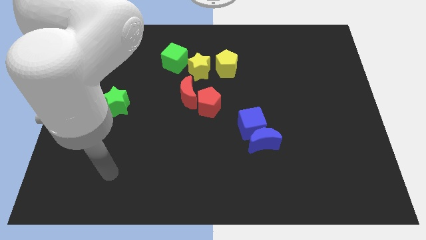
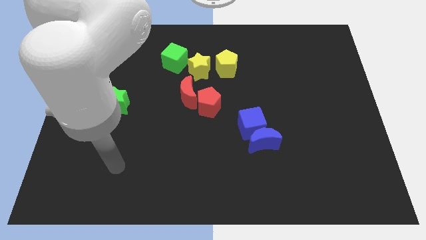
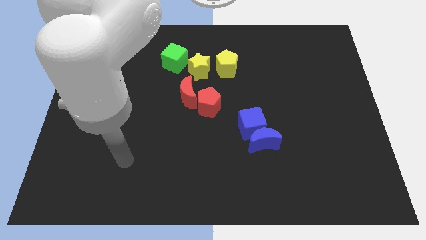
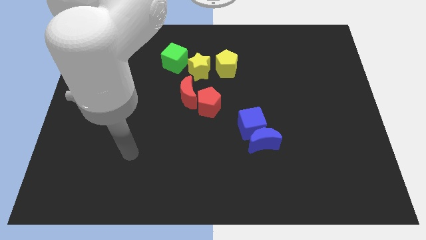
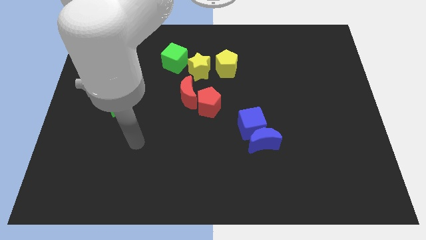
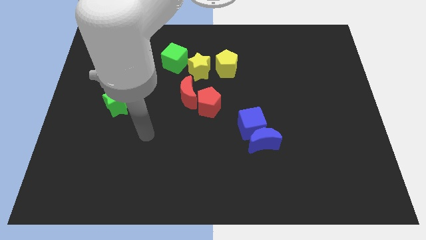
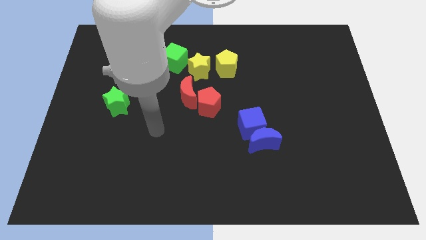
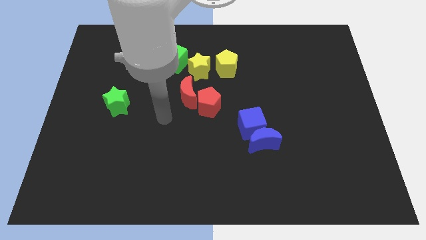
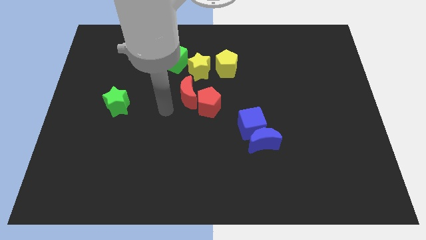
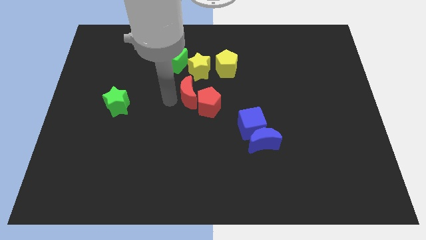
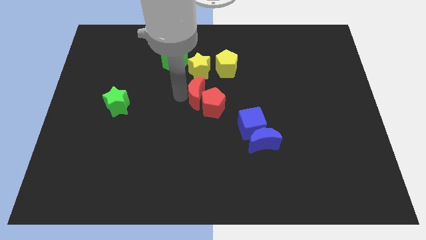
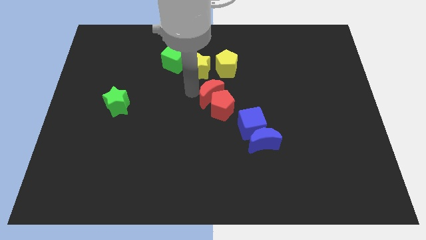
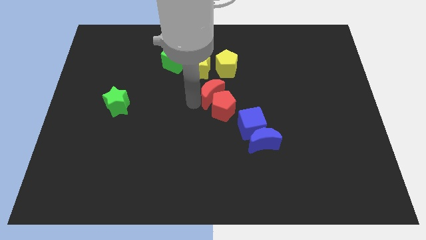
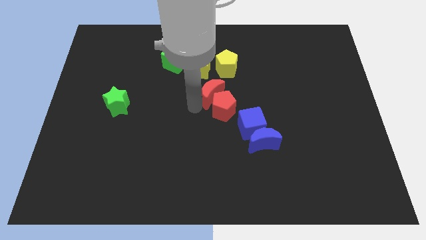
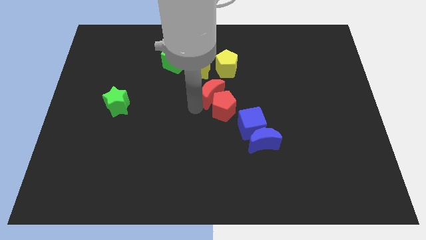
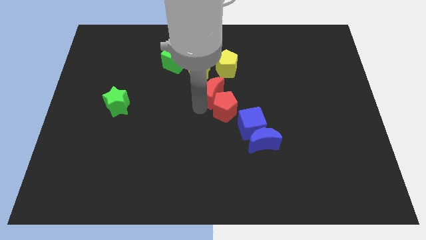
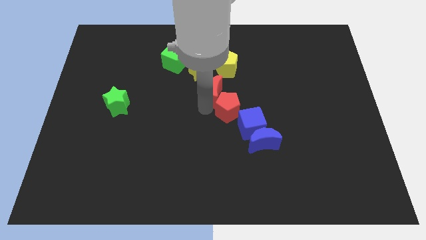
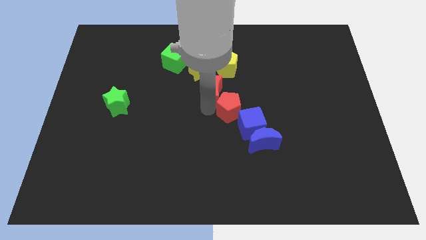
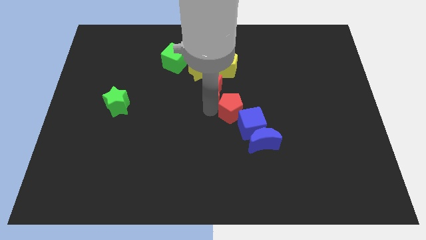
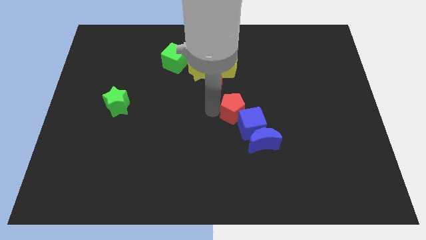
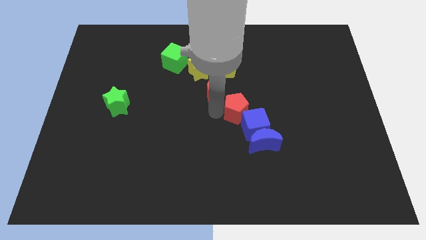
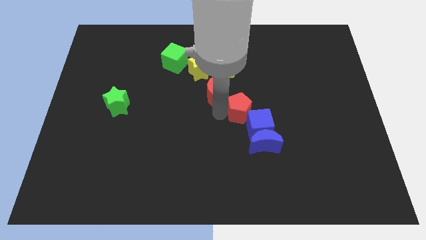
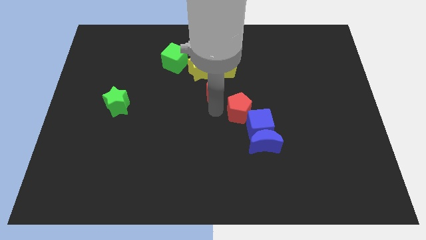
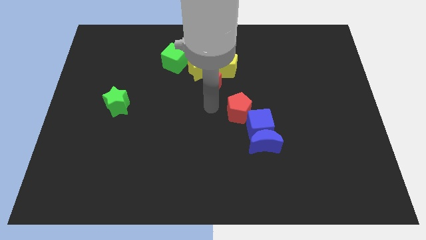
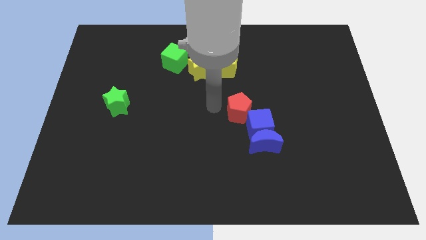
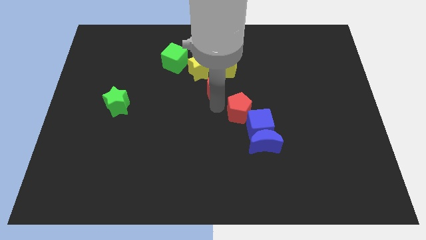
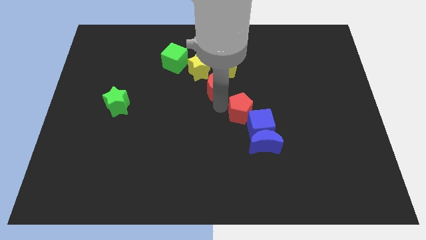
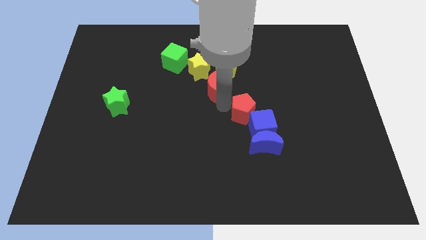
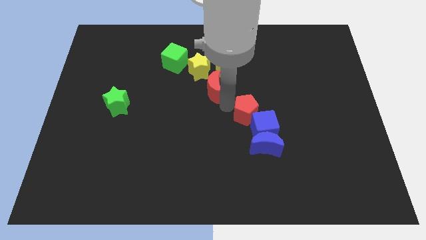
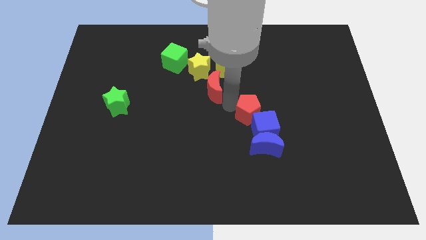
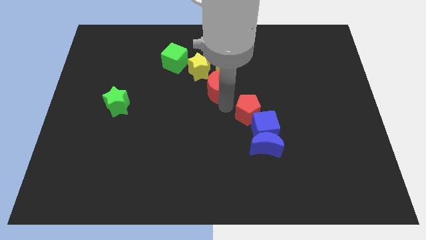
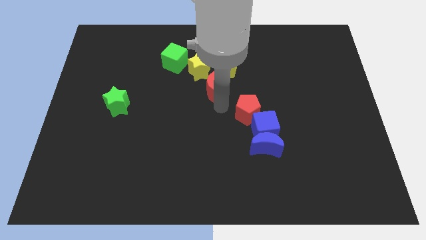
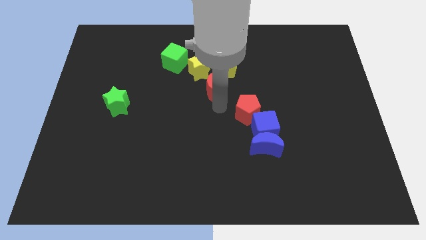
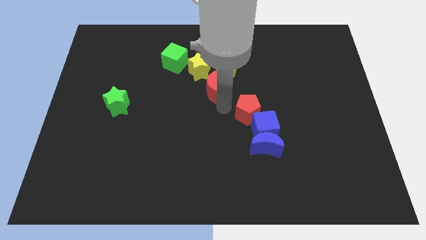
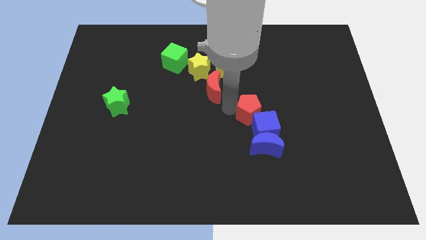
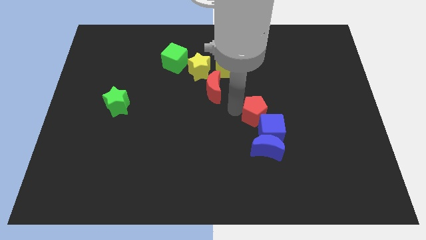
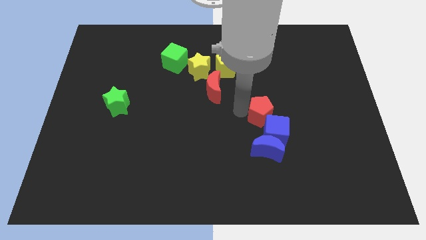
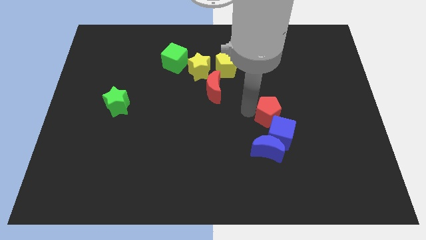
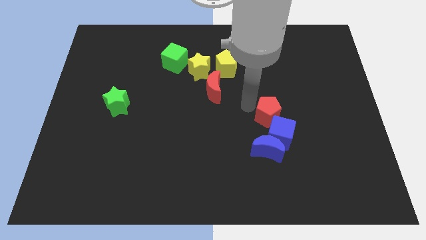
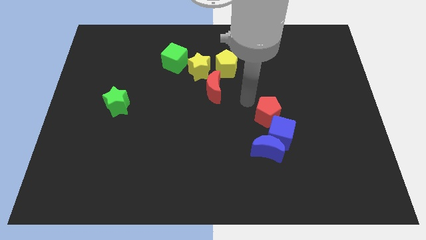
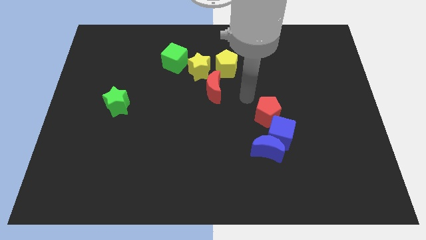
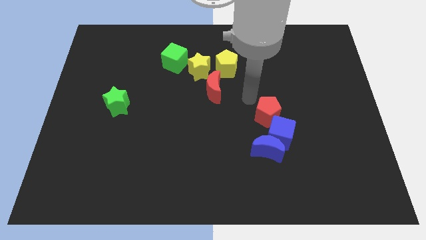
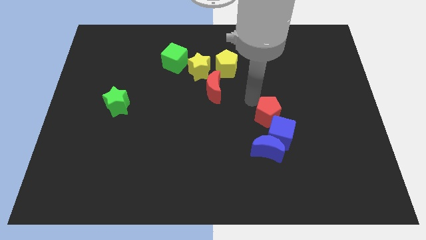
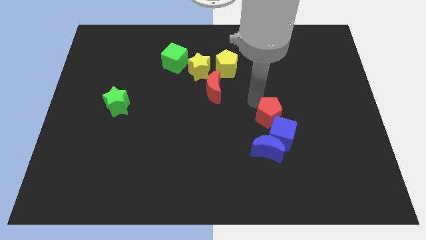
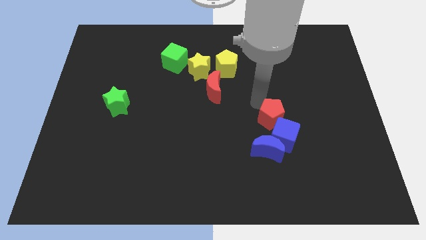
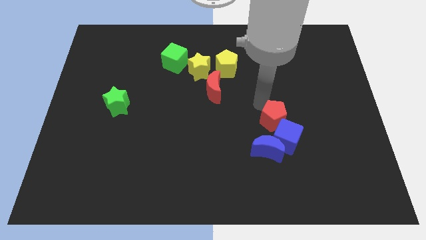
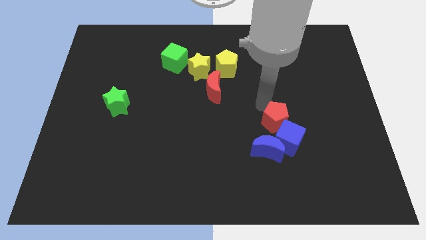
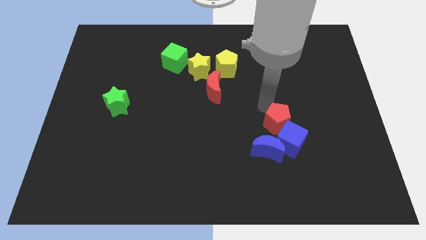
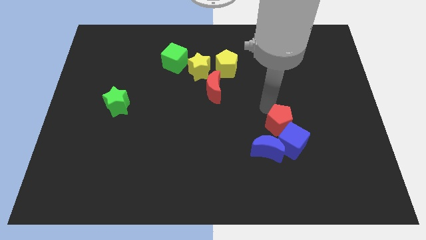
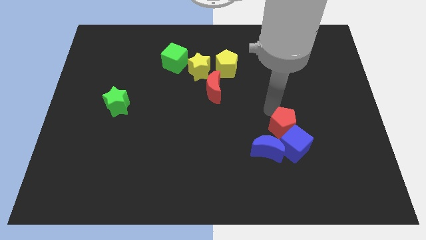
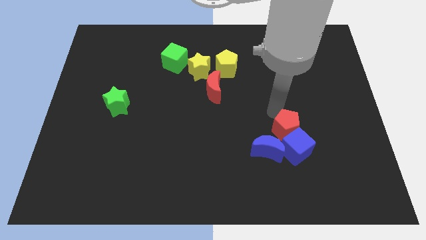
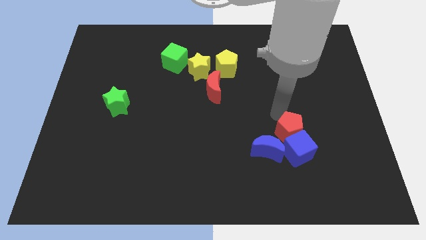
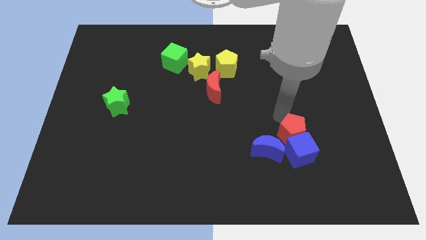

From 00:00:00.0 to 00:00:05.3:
move the red pentagon to the right side of the blue moon

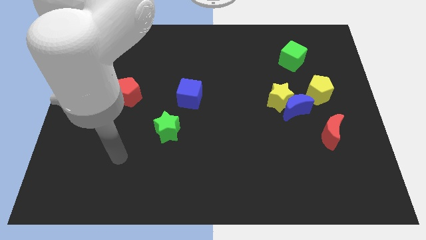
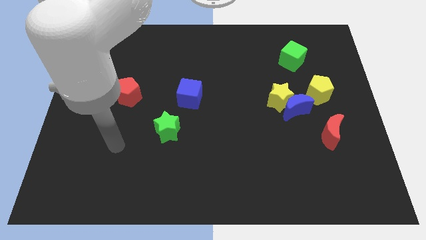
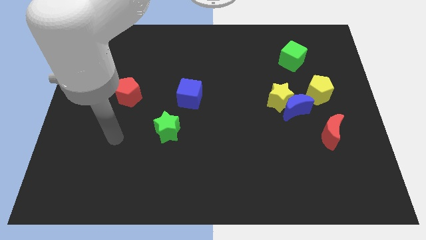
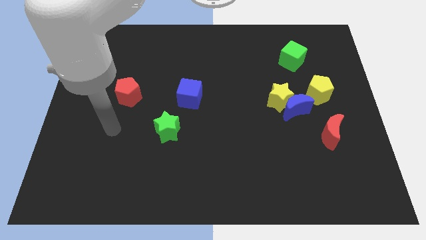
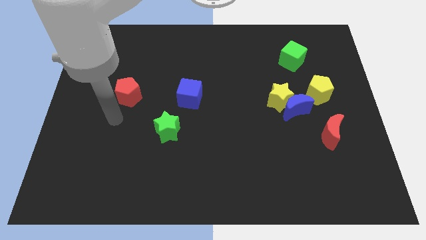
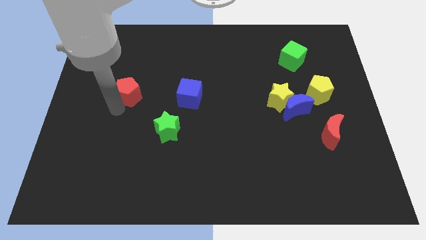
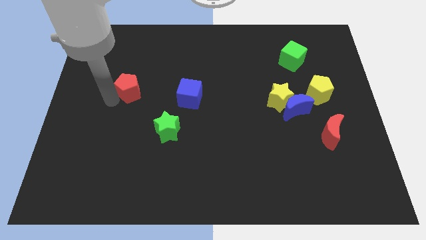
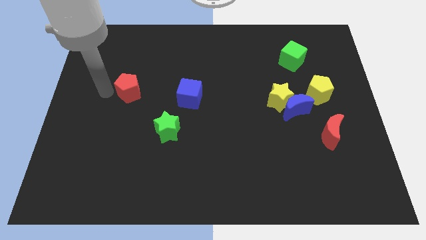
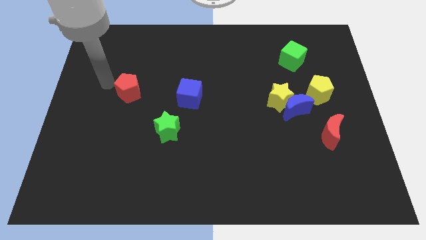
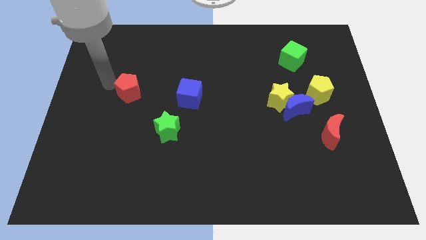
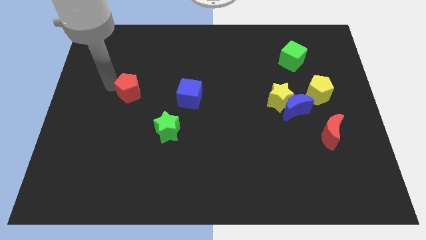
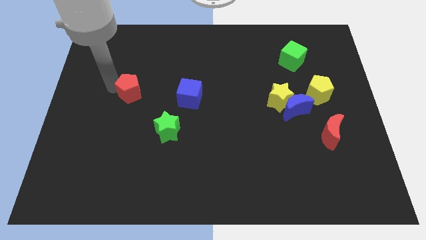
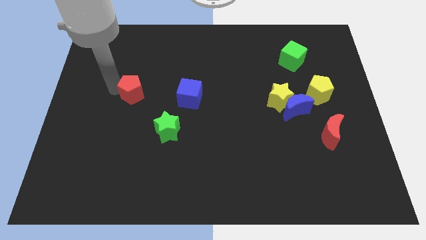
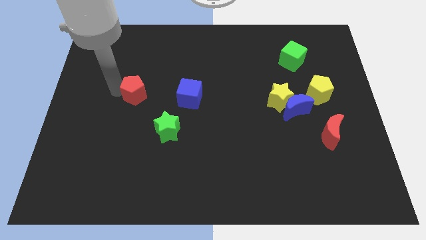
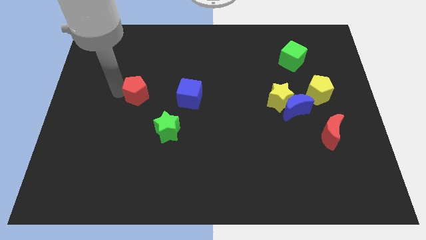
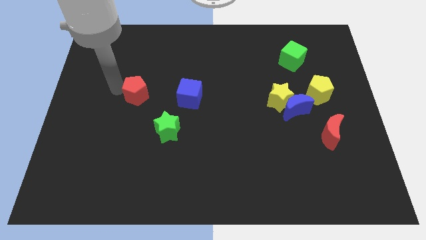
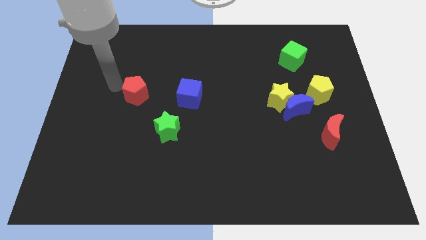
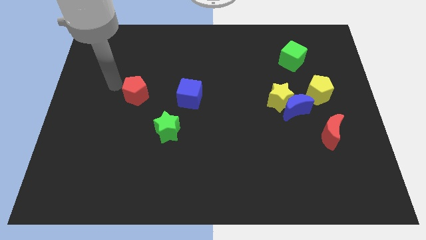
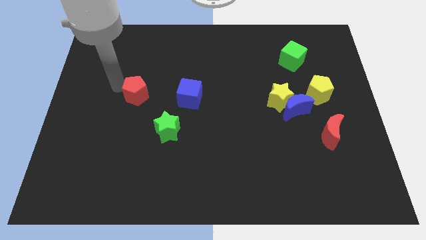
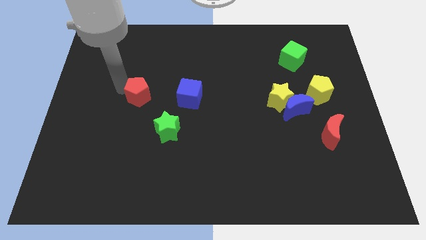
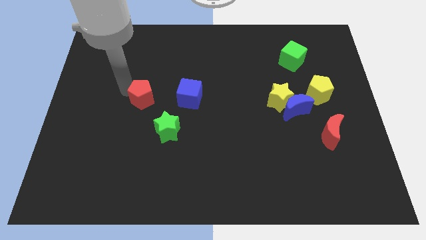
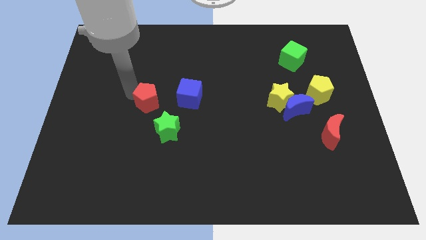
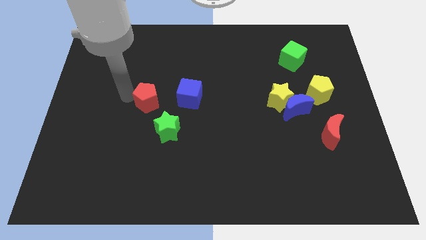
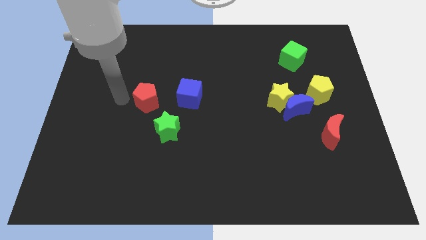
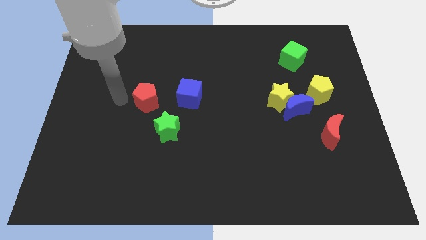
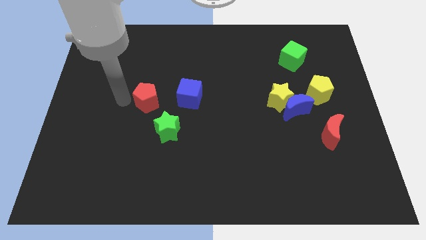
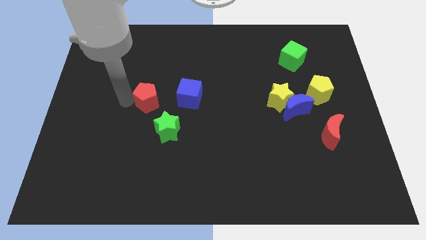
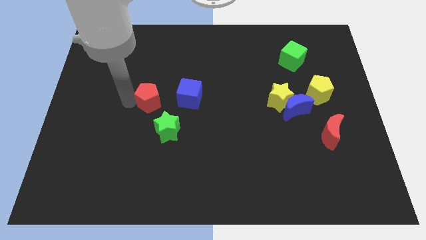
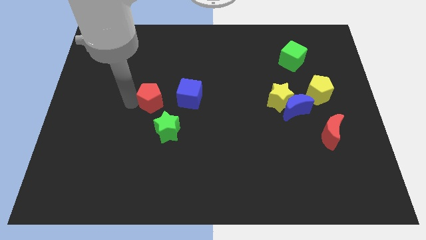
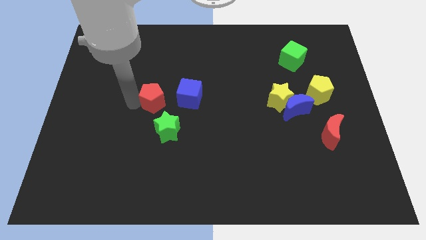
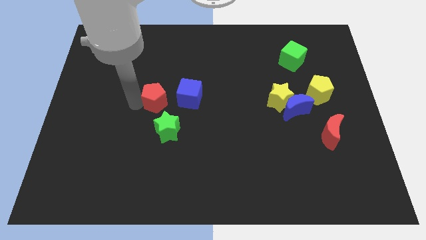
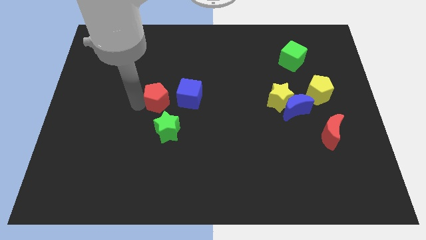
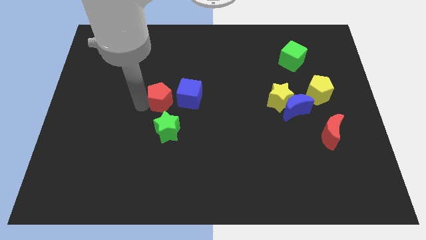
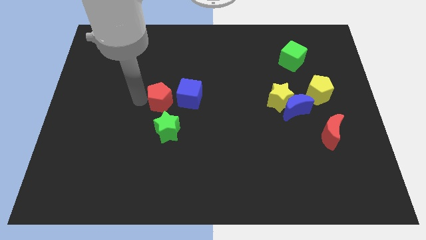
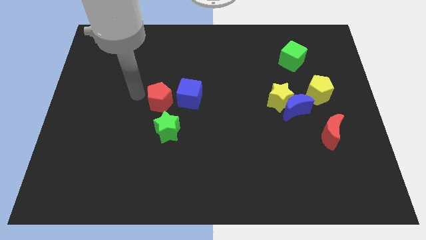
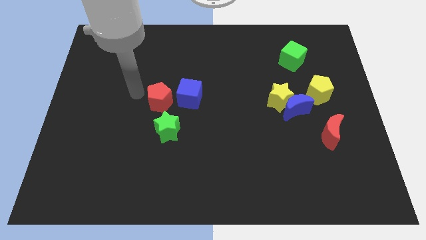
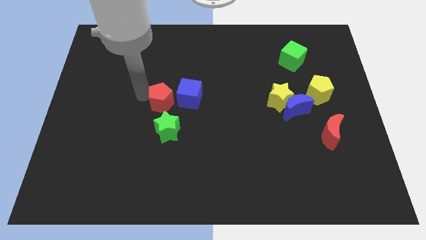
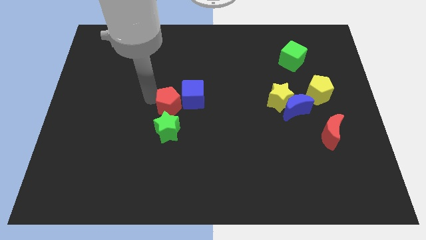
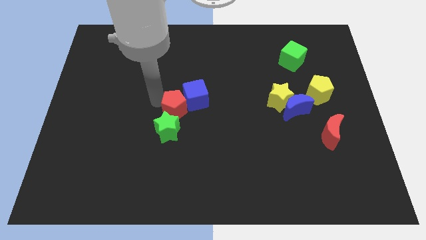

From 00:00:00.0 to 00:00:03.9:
move the red pentagon diagonally up and to the right of the green star
